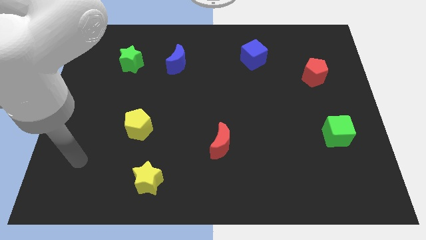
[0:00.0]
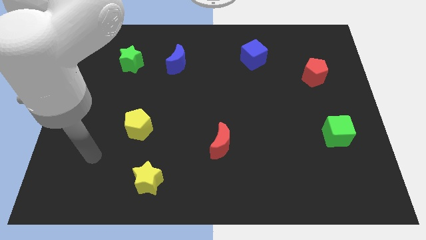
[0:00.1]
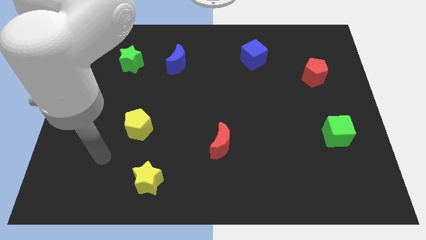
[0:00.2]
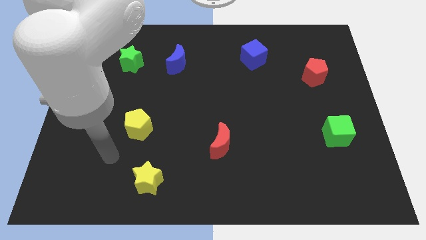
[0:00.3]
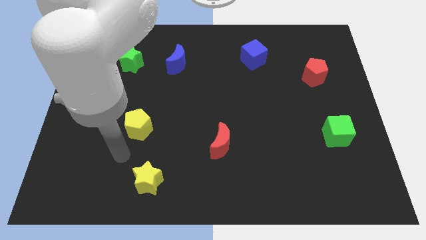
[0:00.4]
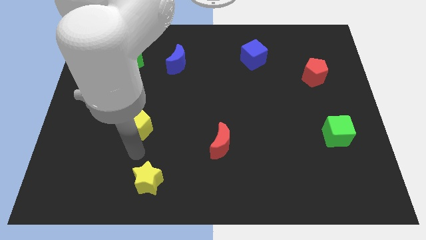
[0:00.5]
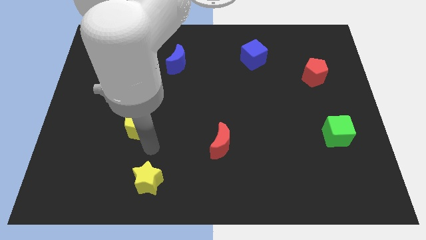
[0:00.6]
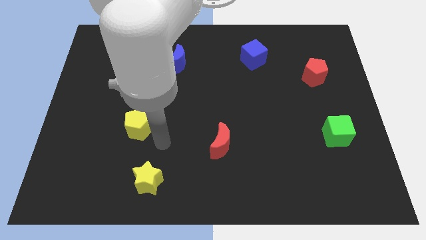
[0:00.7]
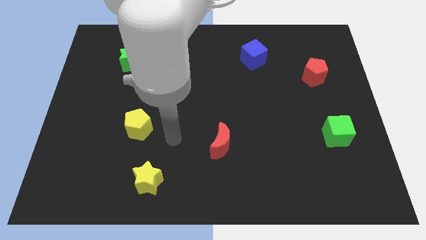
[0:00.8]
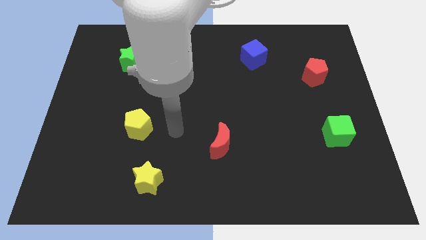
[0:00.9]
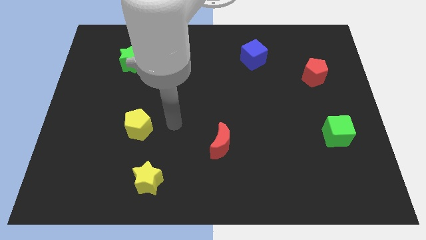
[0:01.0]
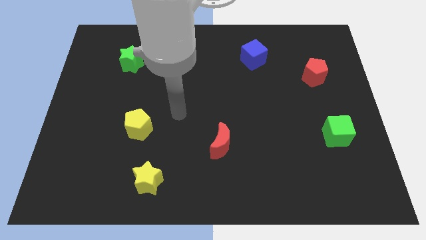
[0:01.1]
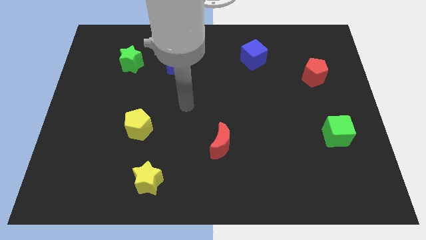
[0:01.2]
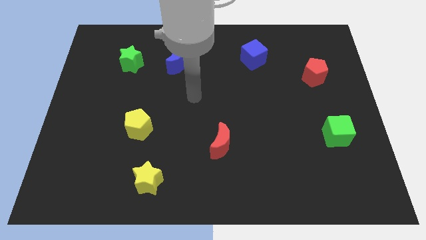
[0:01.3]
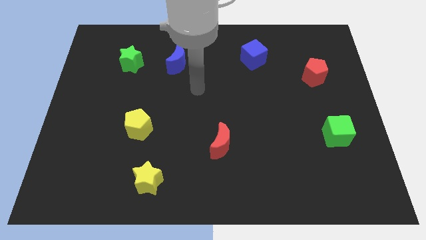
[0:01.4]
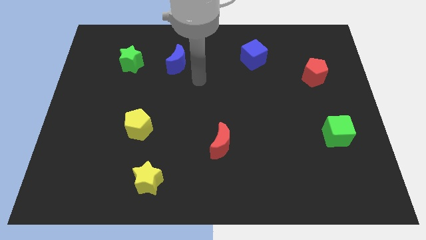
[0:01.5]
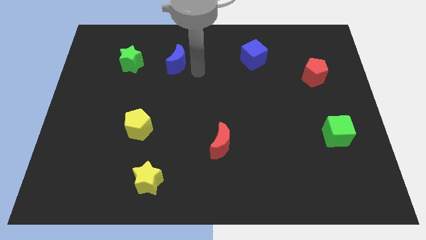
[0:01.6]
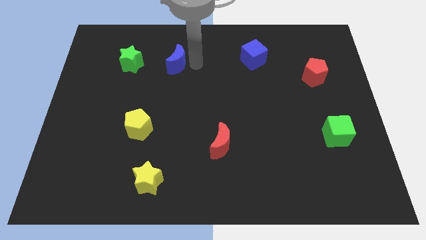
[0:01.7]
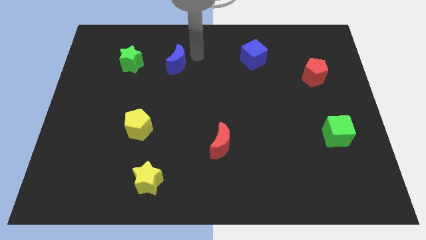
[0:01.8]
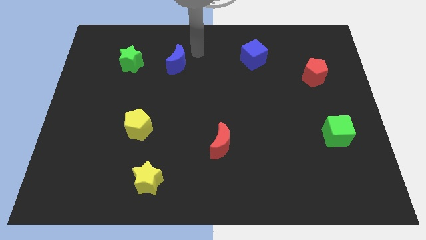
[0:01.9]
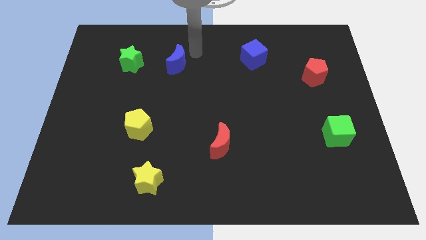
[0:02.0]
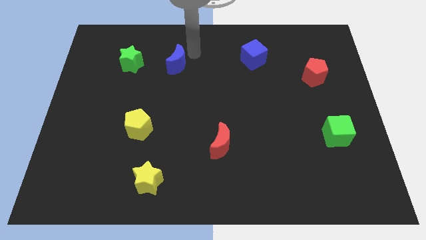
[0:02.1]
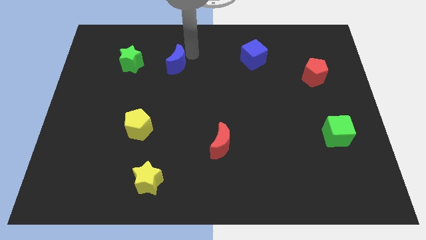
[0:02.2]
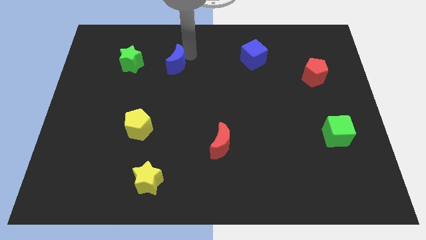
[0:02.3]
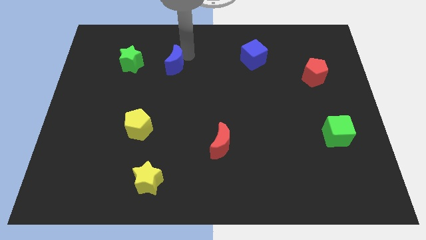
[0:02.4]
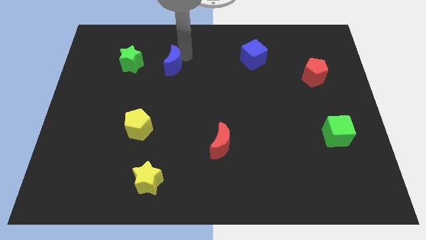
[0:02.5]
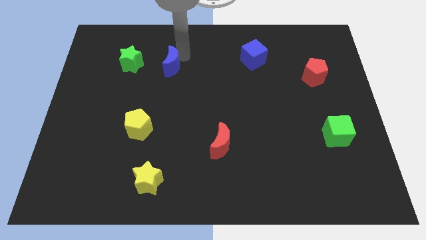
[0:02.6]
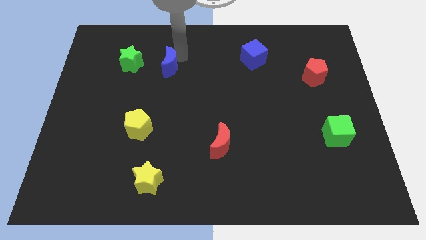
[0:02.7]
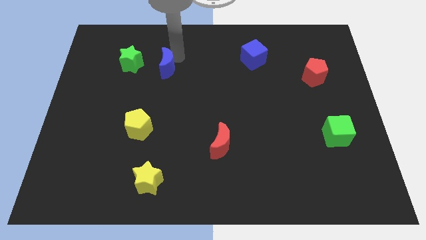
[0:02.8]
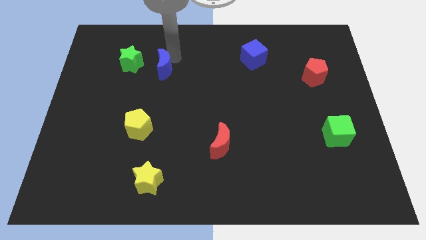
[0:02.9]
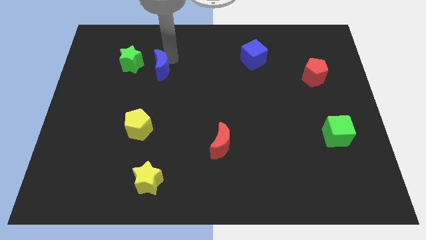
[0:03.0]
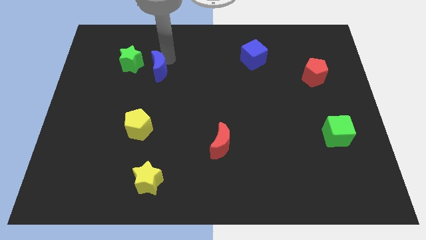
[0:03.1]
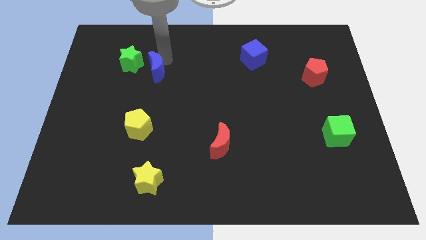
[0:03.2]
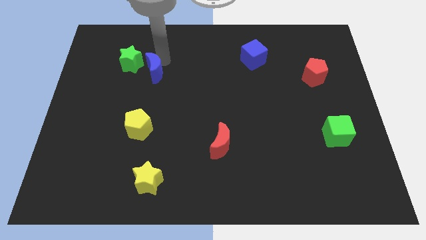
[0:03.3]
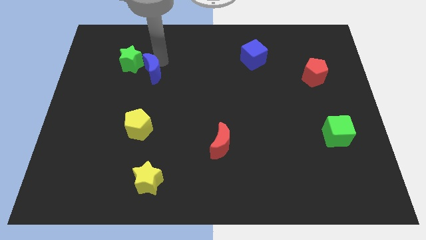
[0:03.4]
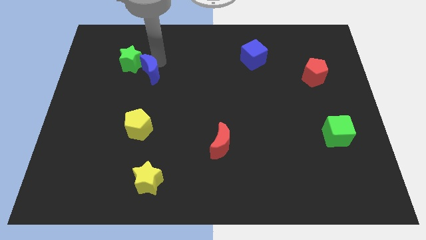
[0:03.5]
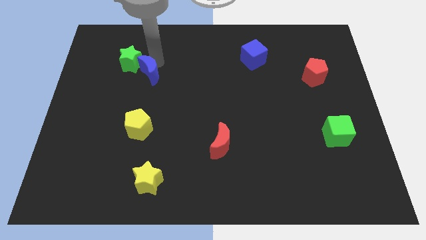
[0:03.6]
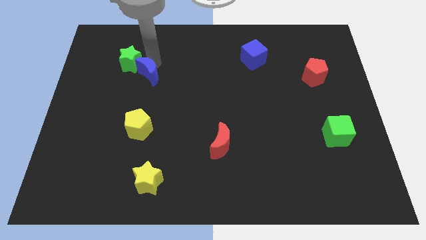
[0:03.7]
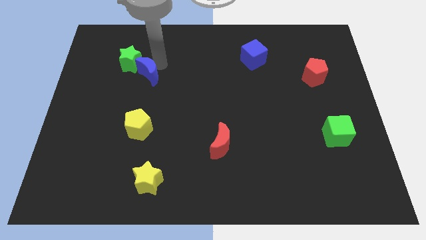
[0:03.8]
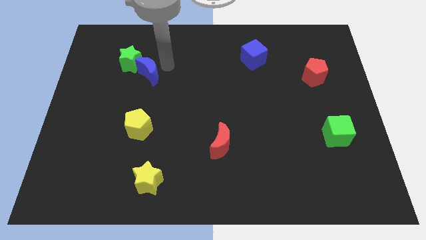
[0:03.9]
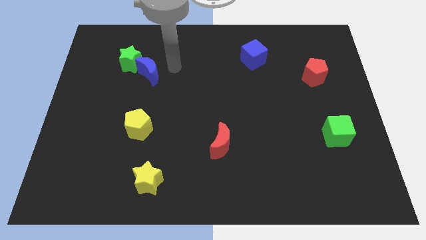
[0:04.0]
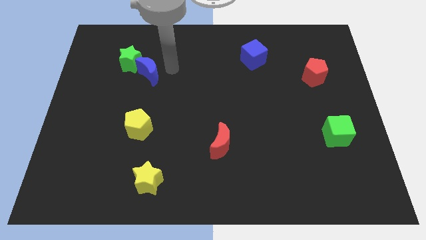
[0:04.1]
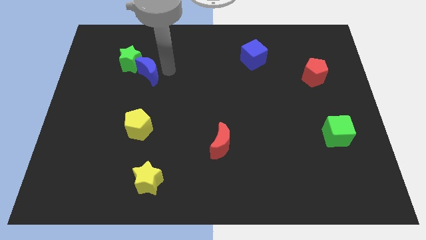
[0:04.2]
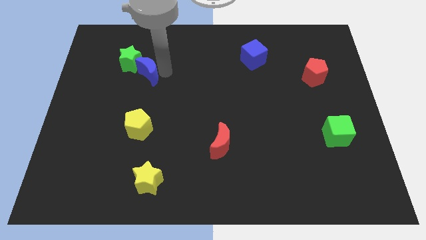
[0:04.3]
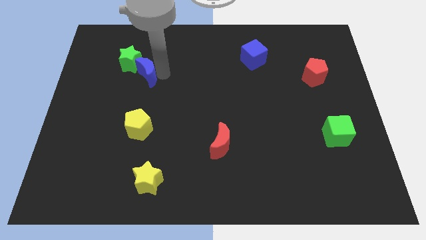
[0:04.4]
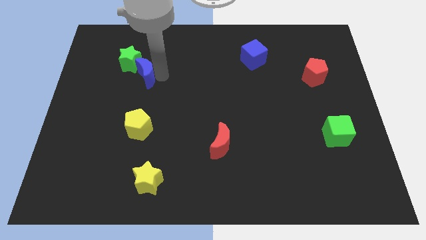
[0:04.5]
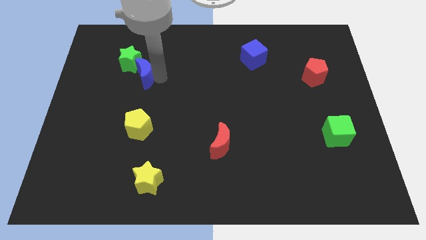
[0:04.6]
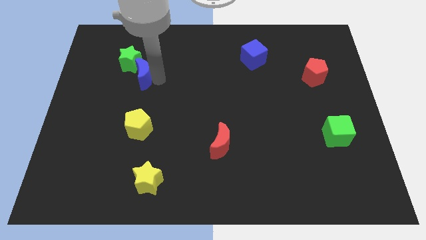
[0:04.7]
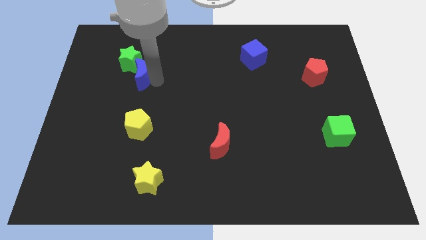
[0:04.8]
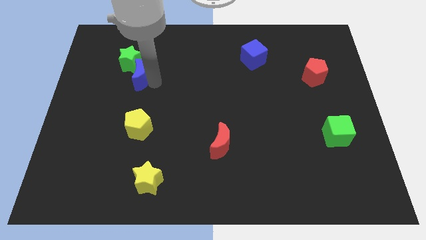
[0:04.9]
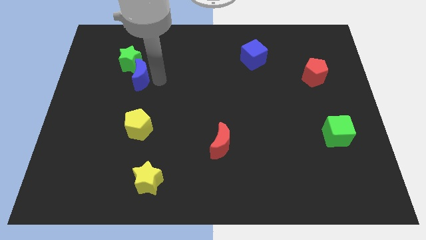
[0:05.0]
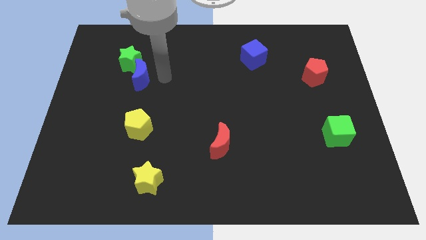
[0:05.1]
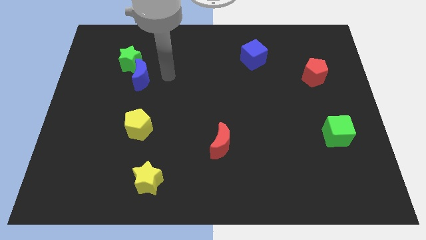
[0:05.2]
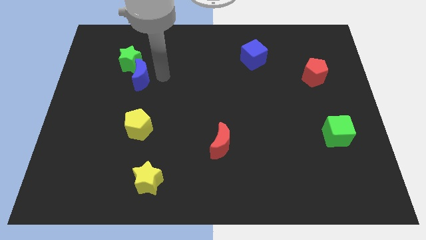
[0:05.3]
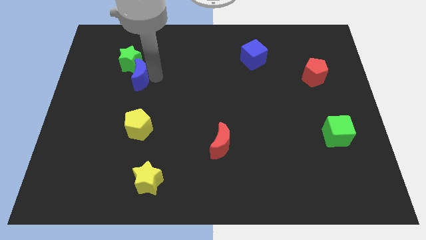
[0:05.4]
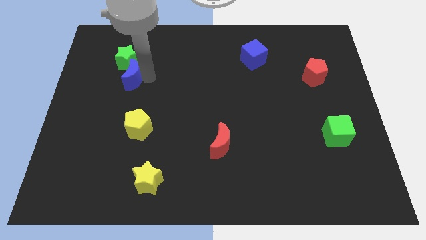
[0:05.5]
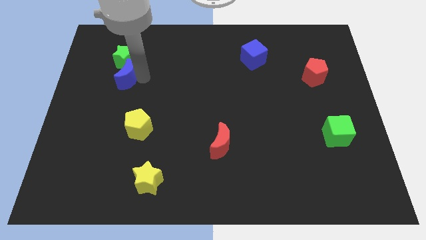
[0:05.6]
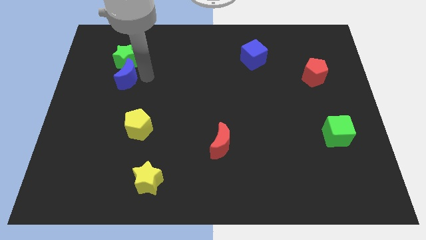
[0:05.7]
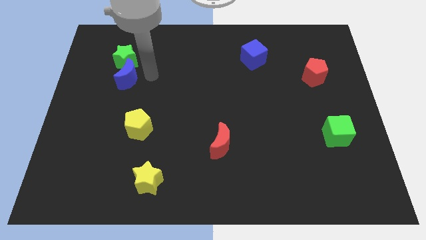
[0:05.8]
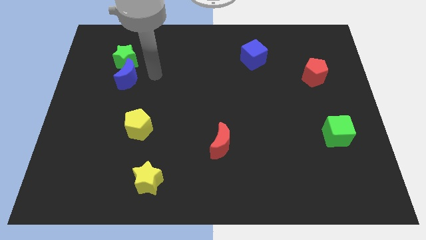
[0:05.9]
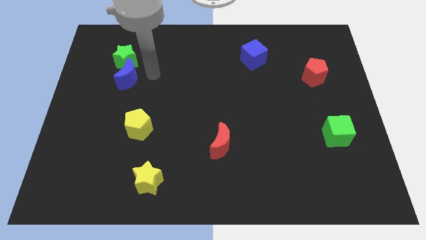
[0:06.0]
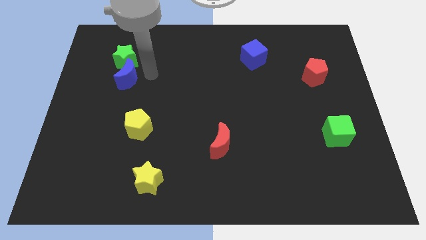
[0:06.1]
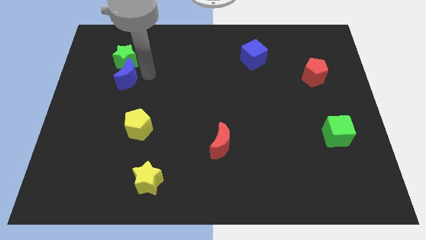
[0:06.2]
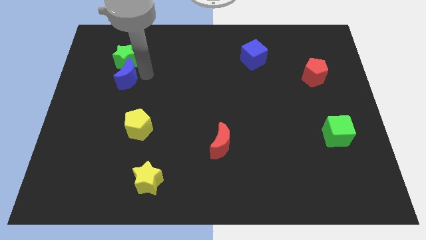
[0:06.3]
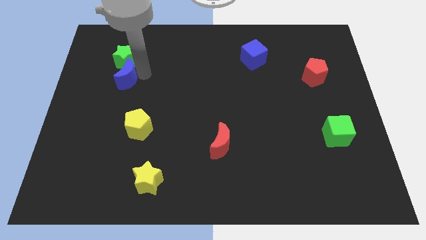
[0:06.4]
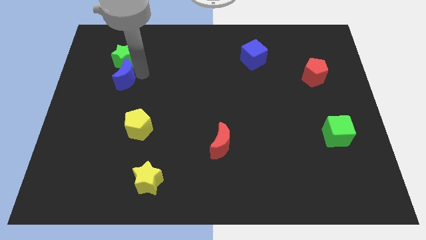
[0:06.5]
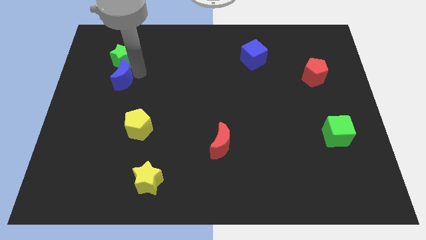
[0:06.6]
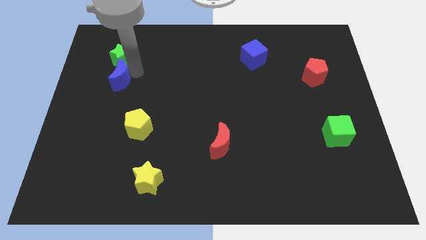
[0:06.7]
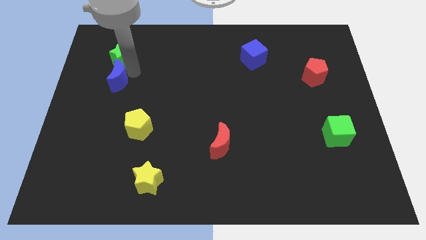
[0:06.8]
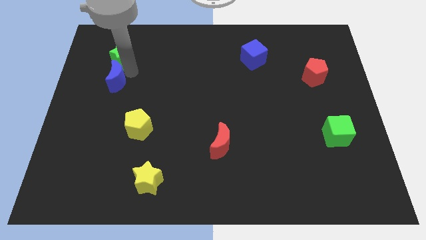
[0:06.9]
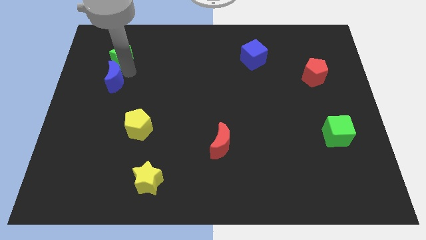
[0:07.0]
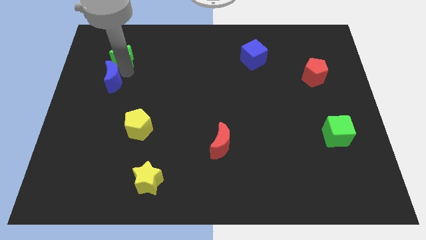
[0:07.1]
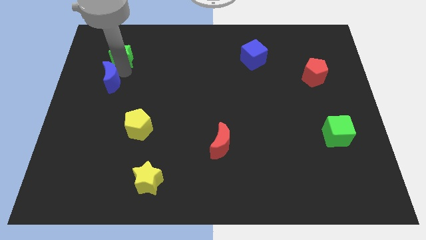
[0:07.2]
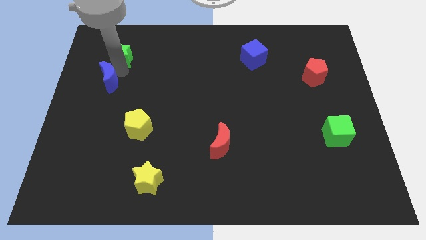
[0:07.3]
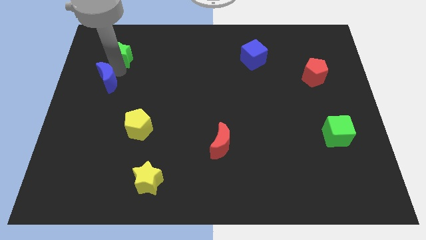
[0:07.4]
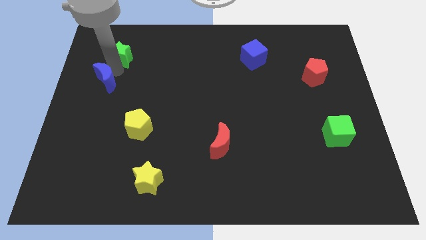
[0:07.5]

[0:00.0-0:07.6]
move the blue moon to the center left
